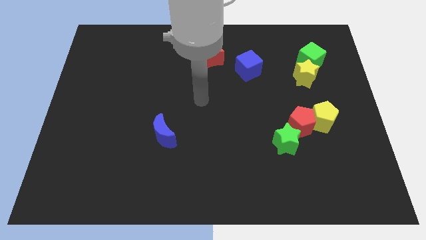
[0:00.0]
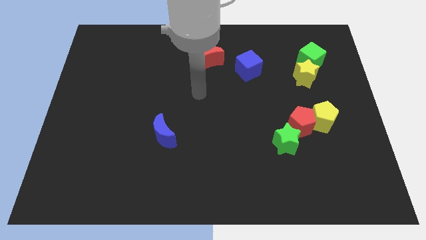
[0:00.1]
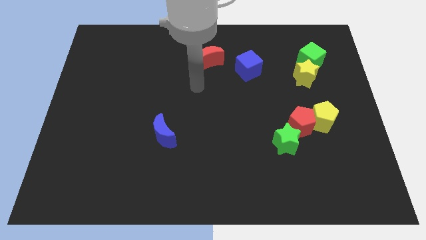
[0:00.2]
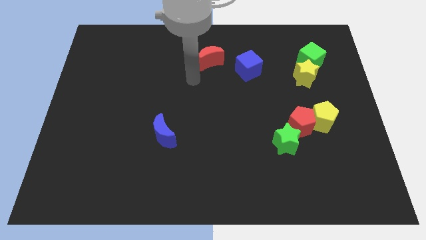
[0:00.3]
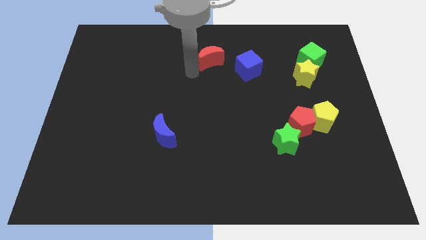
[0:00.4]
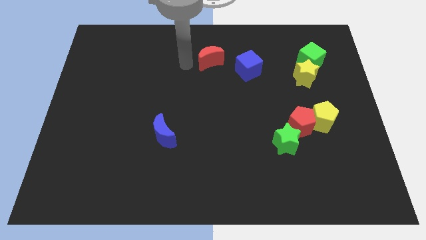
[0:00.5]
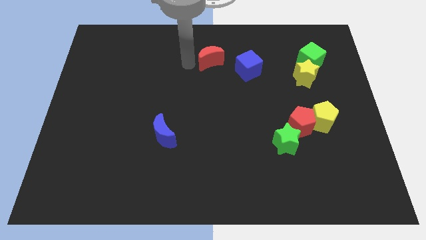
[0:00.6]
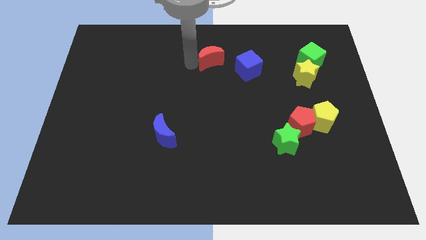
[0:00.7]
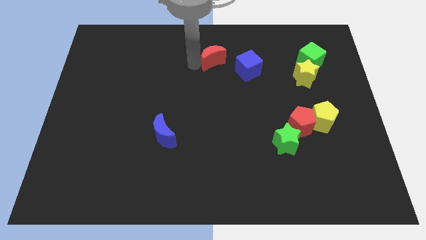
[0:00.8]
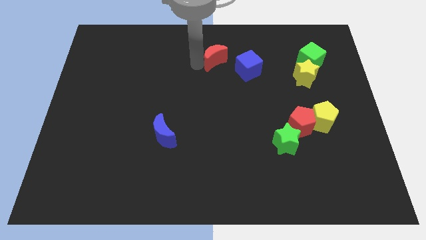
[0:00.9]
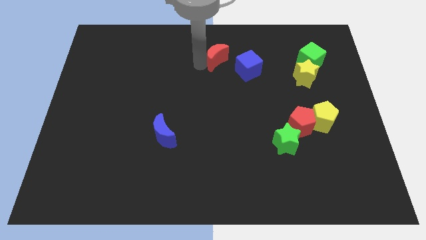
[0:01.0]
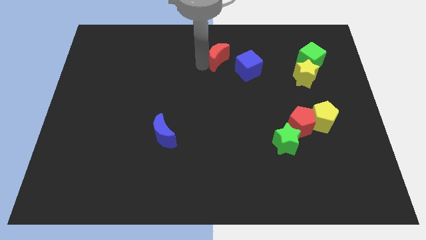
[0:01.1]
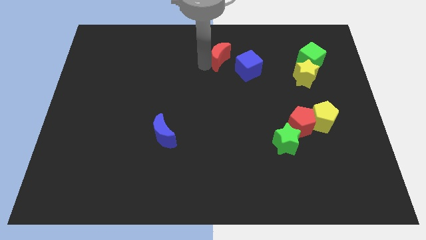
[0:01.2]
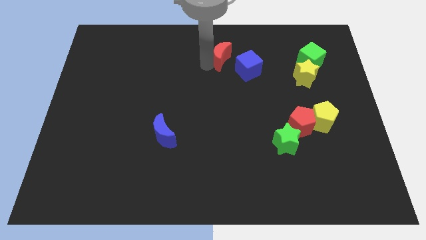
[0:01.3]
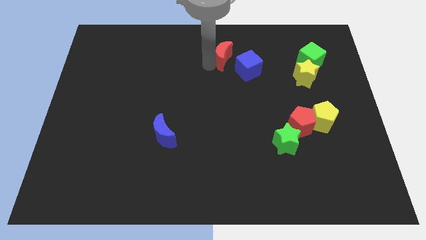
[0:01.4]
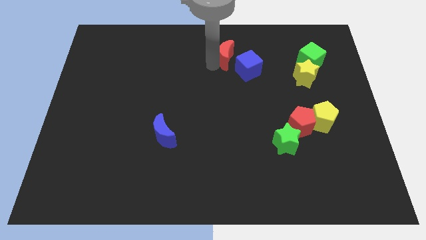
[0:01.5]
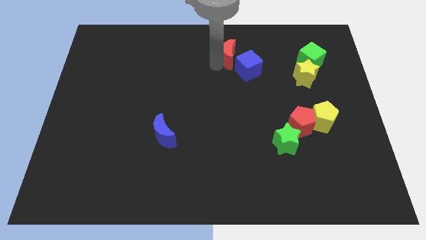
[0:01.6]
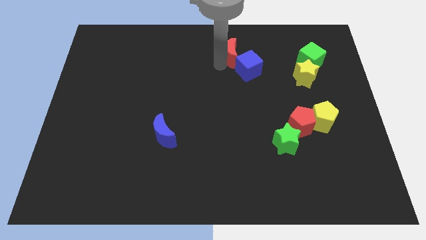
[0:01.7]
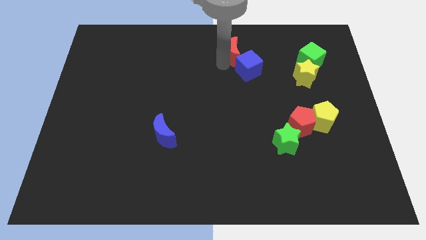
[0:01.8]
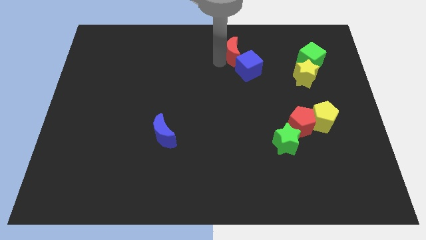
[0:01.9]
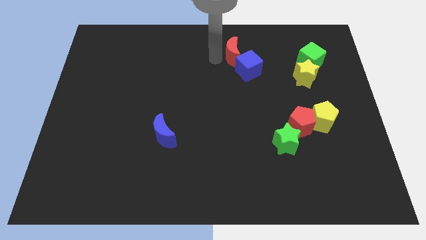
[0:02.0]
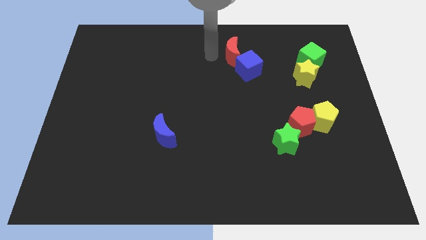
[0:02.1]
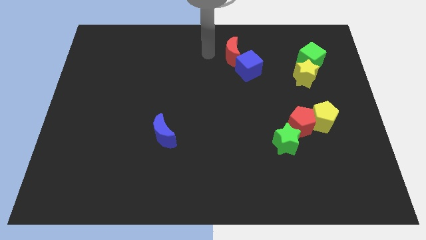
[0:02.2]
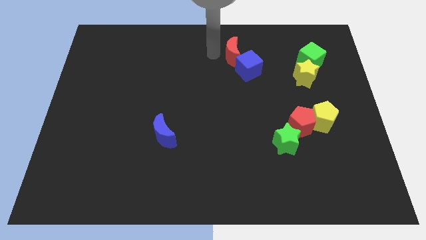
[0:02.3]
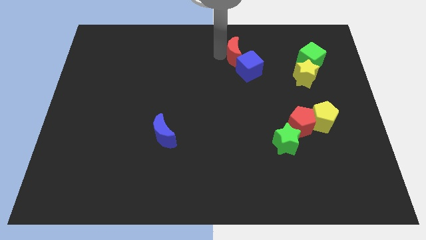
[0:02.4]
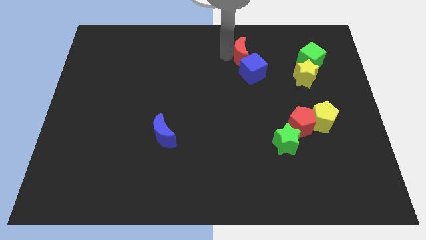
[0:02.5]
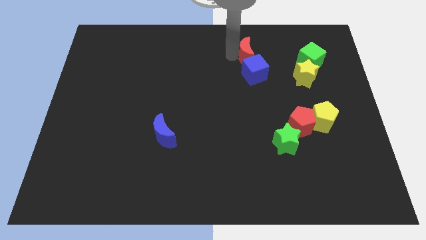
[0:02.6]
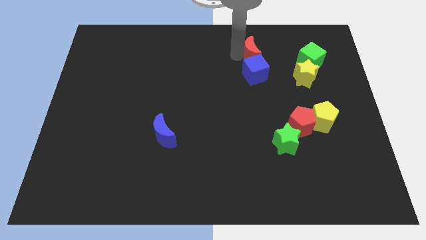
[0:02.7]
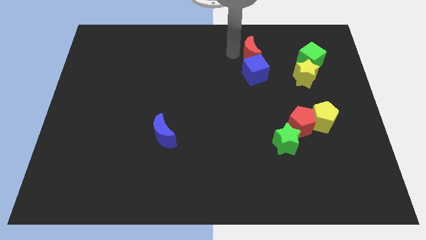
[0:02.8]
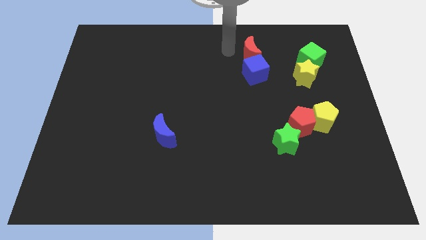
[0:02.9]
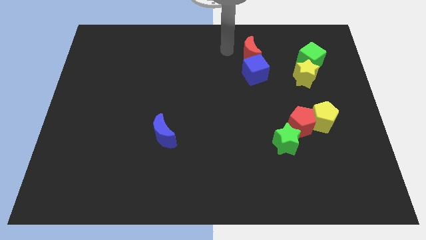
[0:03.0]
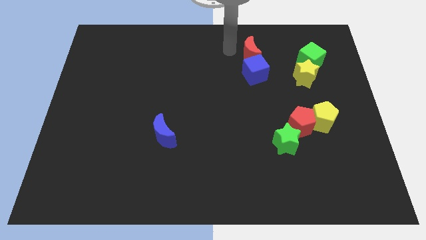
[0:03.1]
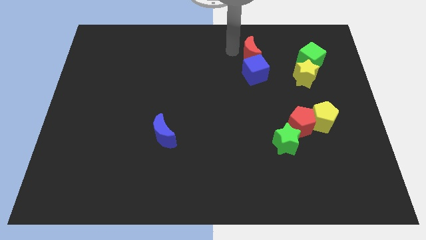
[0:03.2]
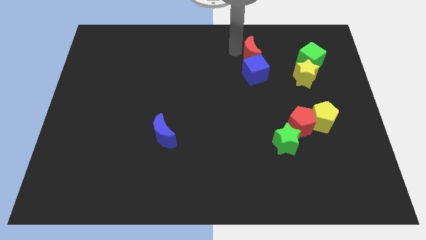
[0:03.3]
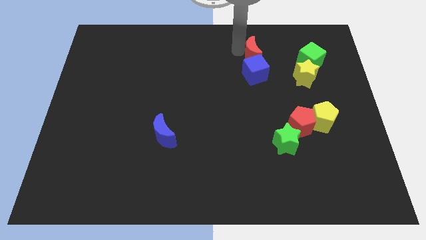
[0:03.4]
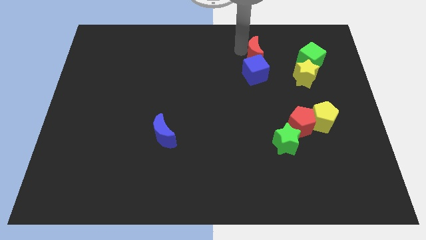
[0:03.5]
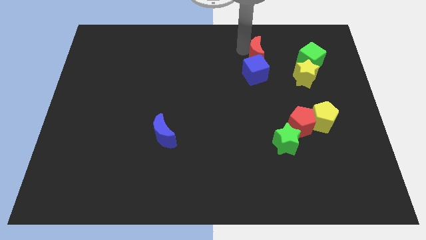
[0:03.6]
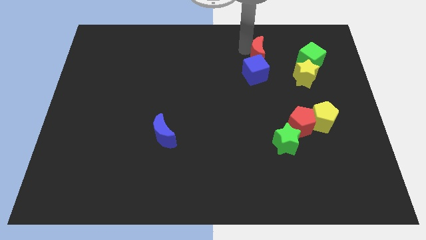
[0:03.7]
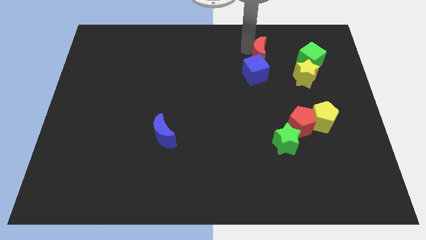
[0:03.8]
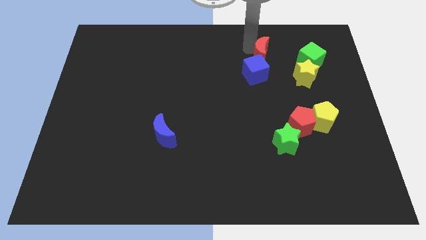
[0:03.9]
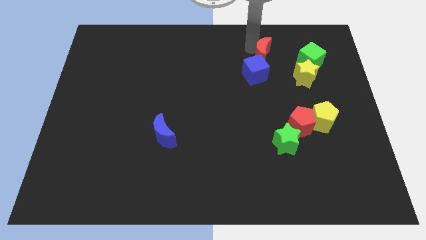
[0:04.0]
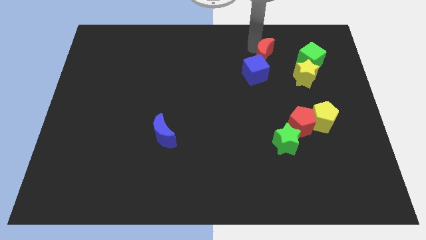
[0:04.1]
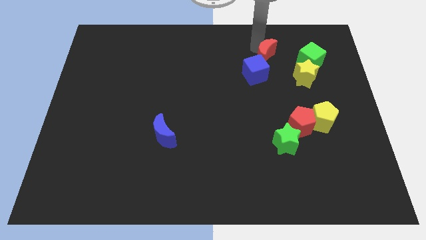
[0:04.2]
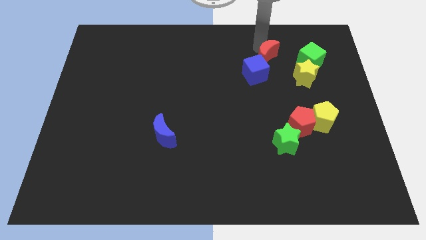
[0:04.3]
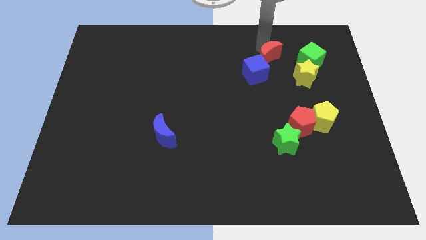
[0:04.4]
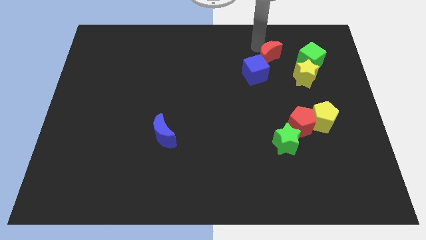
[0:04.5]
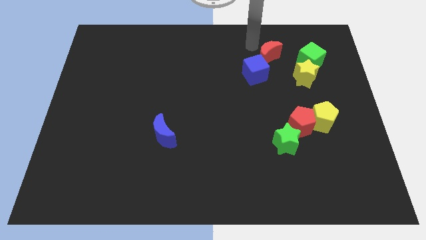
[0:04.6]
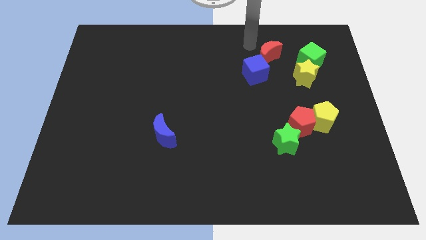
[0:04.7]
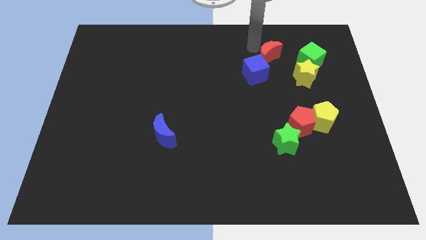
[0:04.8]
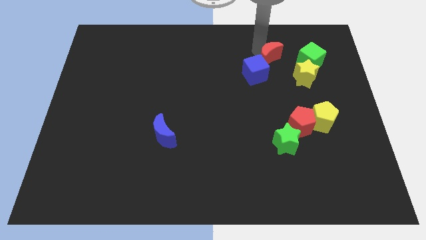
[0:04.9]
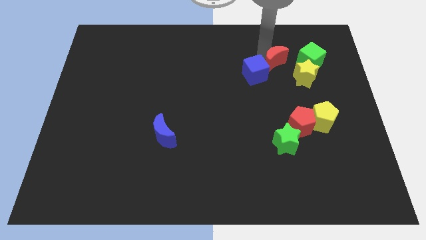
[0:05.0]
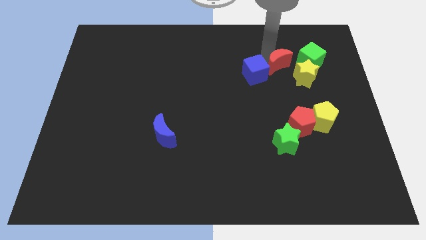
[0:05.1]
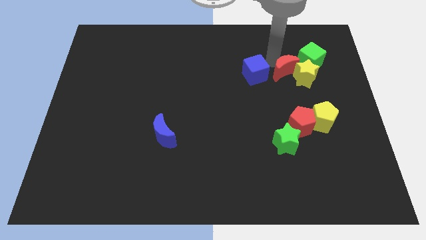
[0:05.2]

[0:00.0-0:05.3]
put the red moon next to the yellow star

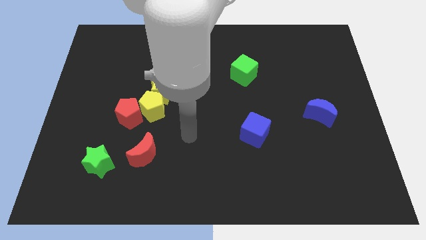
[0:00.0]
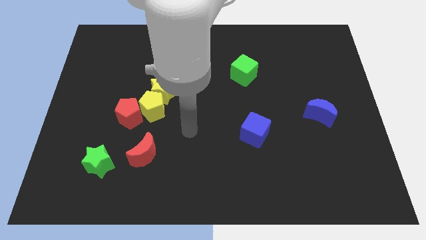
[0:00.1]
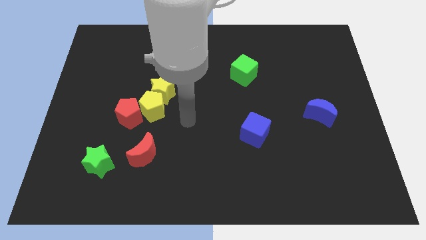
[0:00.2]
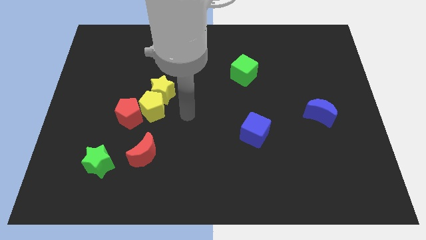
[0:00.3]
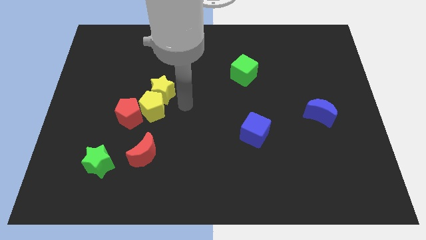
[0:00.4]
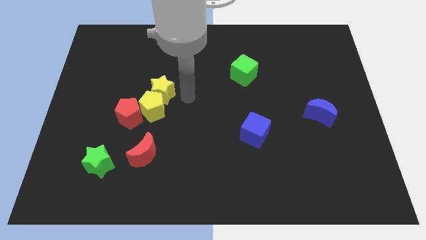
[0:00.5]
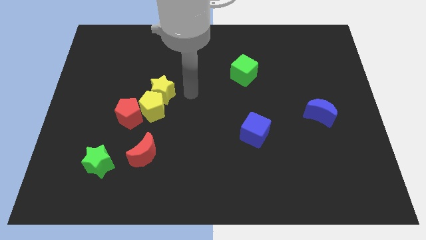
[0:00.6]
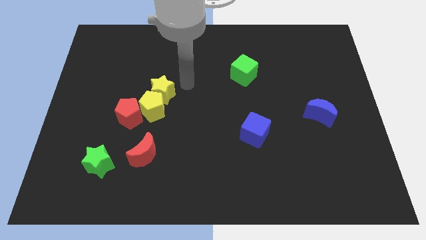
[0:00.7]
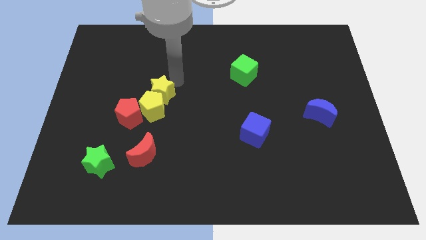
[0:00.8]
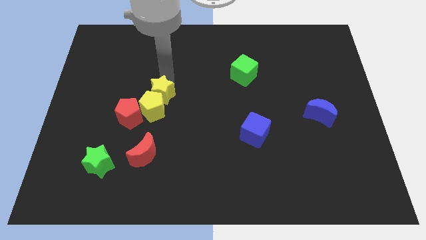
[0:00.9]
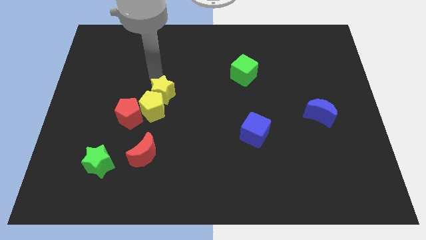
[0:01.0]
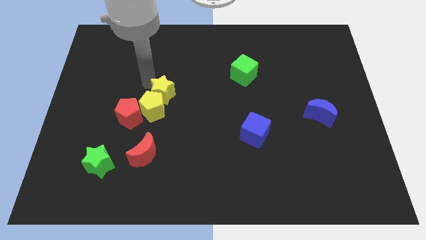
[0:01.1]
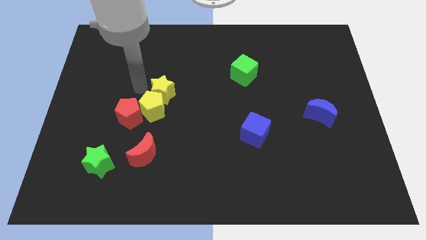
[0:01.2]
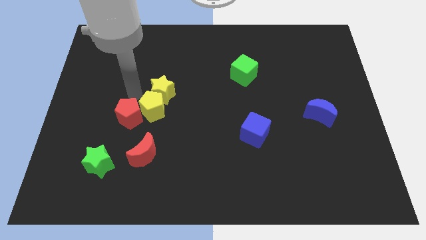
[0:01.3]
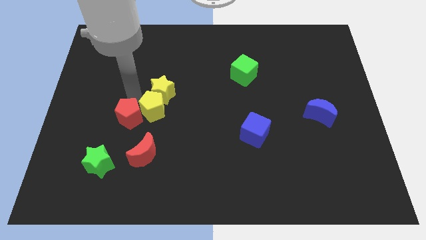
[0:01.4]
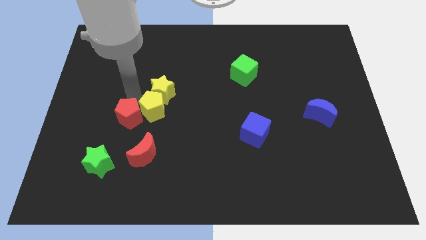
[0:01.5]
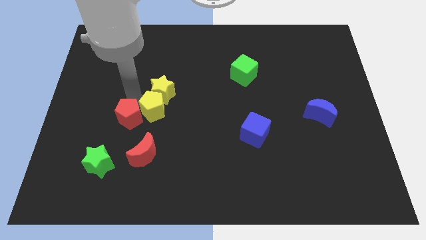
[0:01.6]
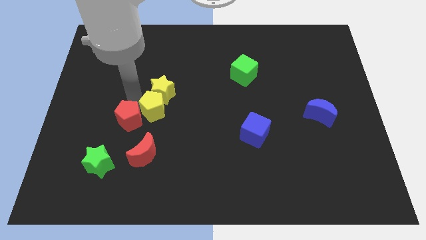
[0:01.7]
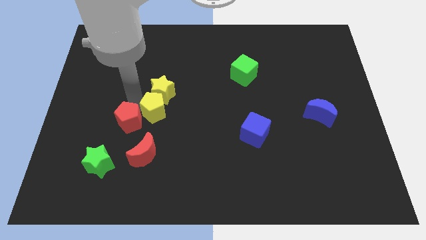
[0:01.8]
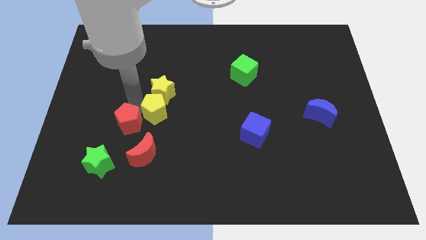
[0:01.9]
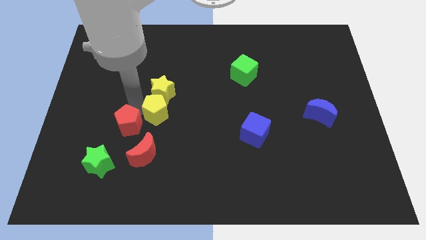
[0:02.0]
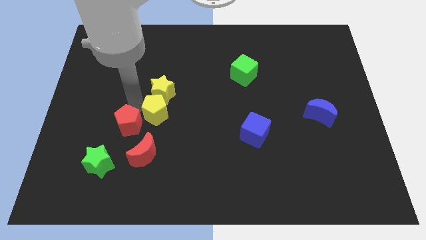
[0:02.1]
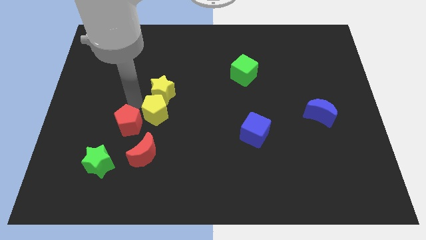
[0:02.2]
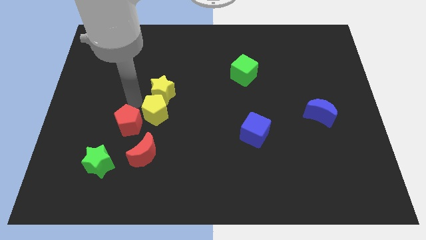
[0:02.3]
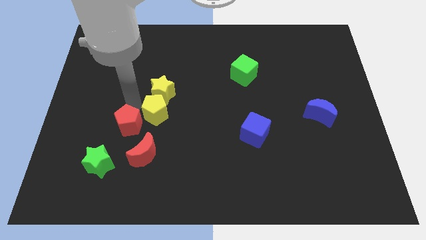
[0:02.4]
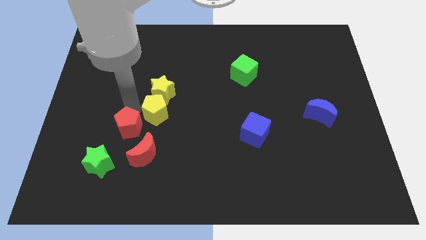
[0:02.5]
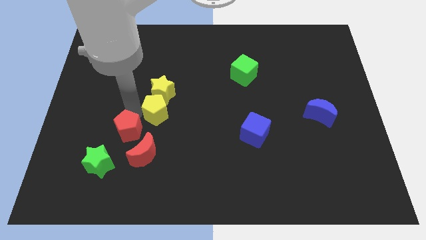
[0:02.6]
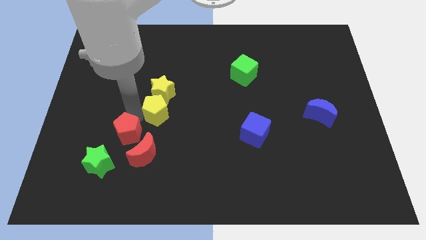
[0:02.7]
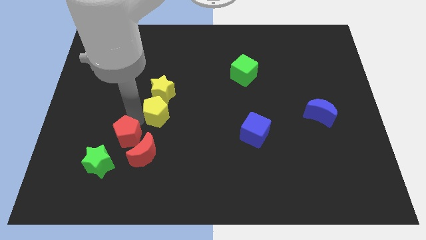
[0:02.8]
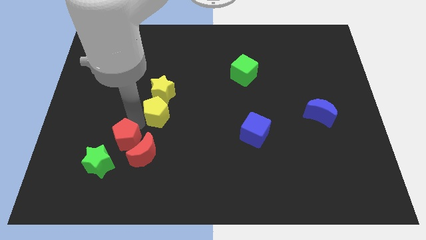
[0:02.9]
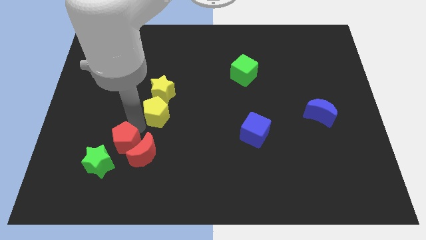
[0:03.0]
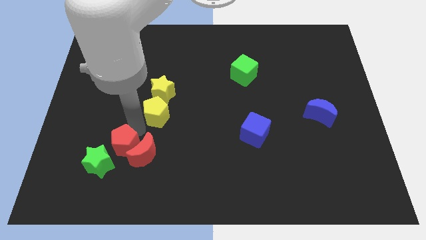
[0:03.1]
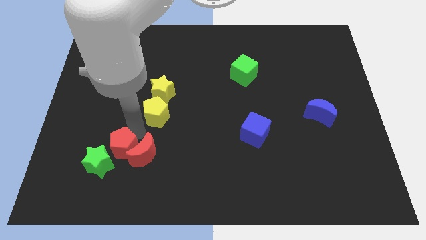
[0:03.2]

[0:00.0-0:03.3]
slide the red pentagon to the green star
